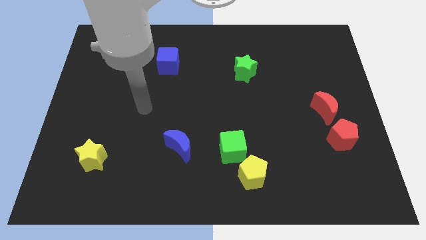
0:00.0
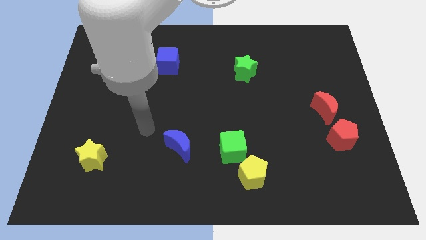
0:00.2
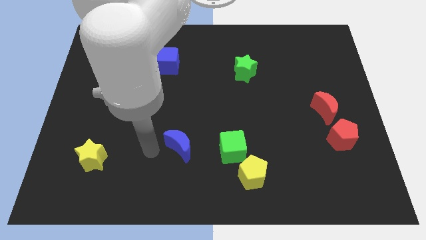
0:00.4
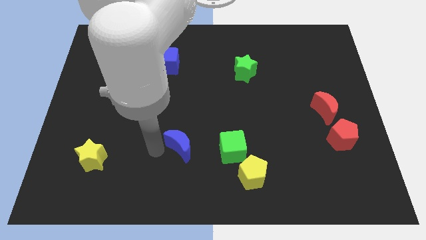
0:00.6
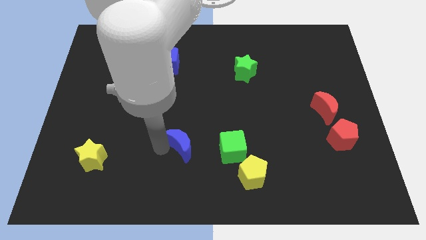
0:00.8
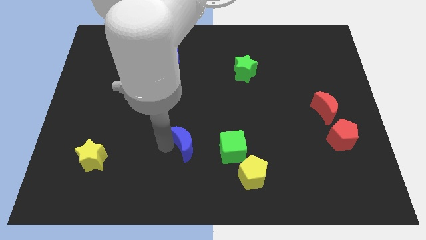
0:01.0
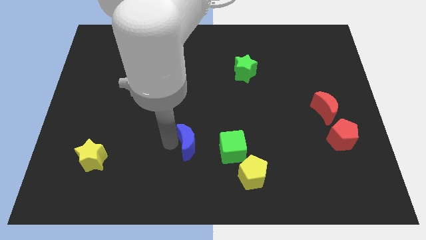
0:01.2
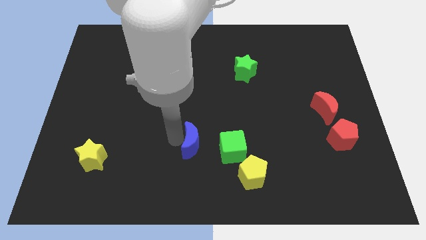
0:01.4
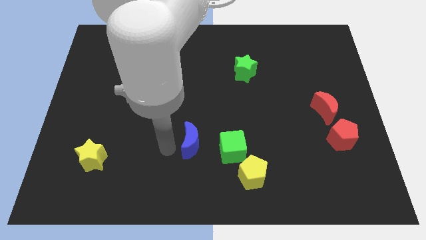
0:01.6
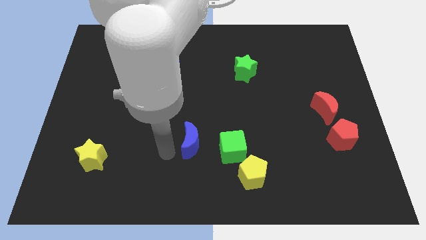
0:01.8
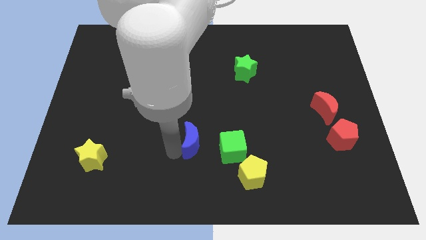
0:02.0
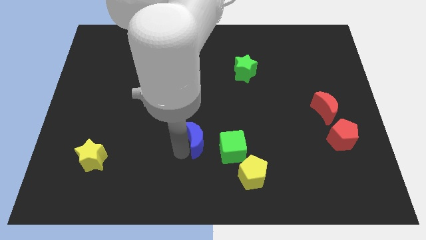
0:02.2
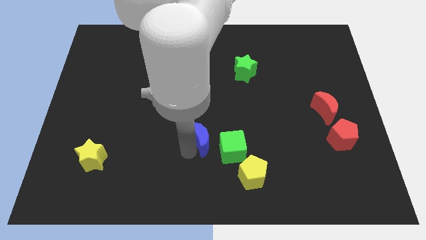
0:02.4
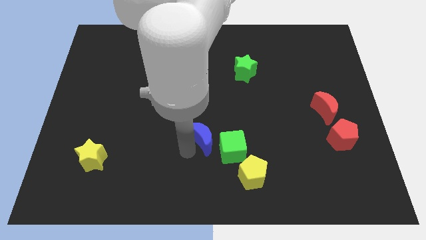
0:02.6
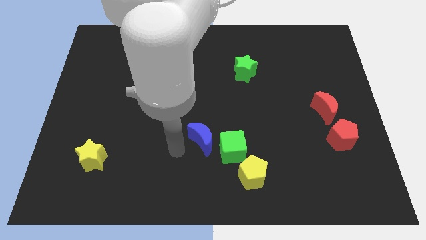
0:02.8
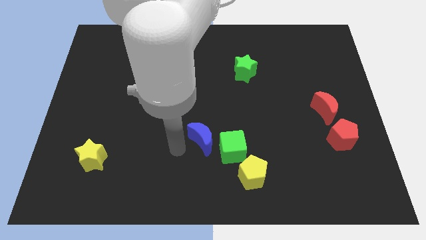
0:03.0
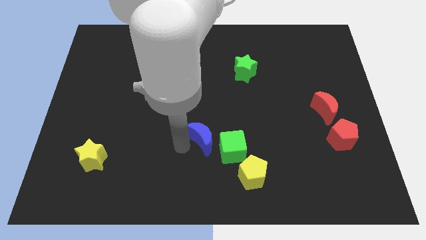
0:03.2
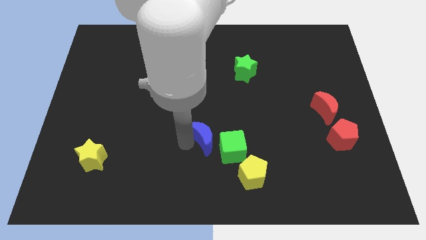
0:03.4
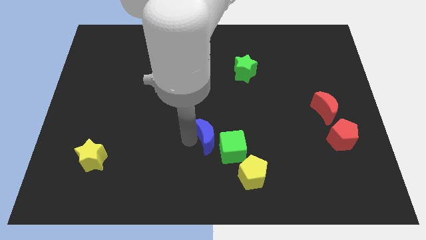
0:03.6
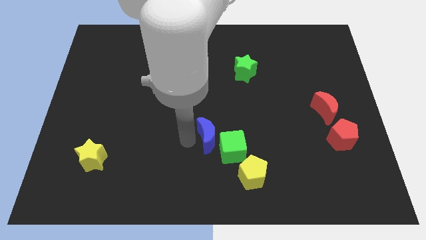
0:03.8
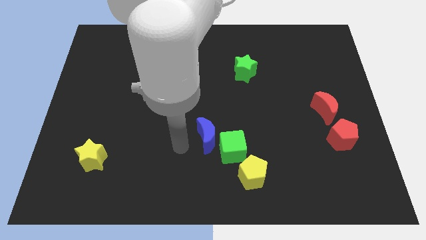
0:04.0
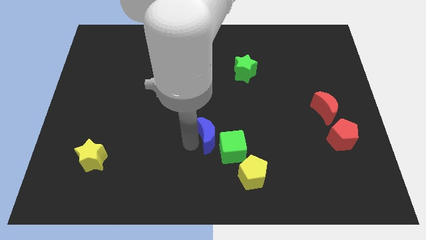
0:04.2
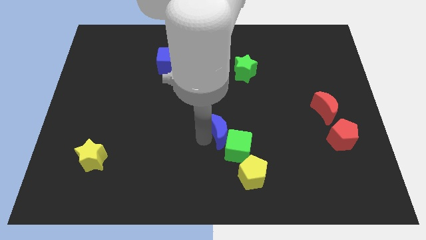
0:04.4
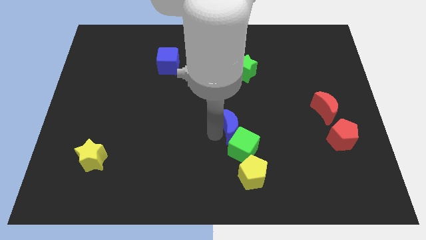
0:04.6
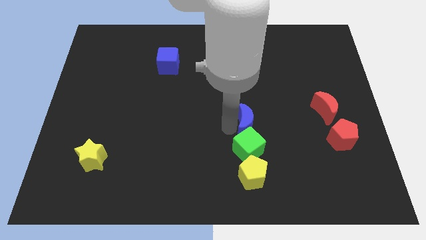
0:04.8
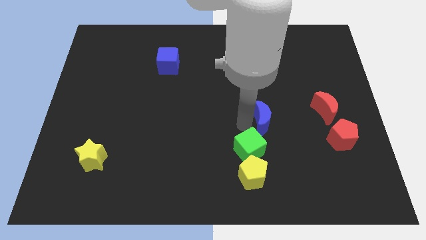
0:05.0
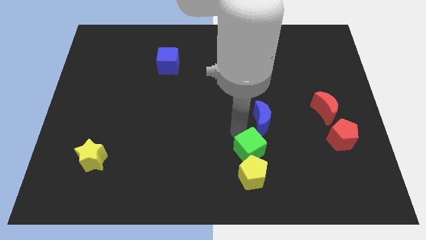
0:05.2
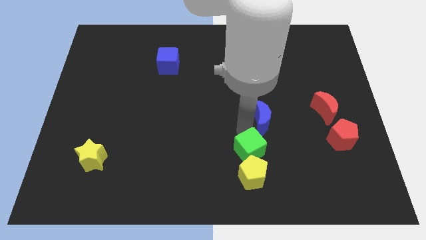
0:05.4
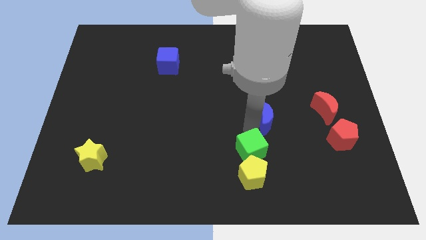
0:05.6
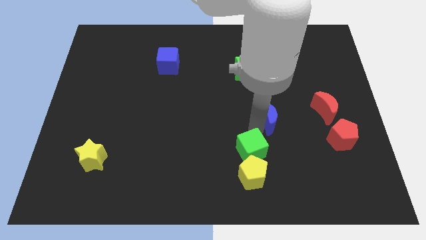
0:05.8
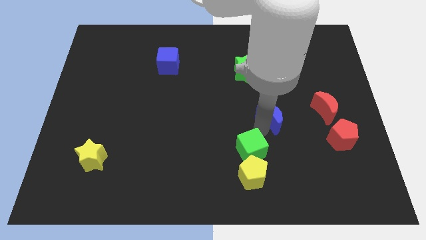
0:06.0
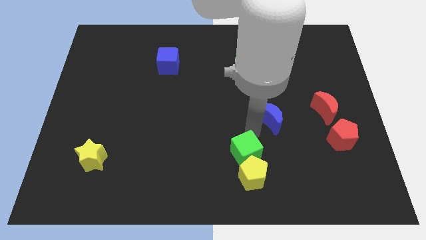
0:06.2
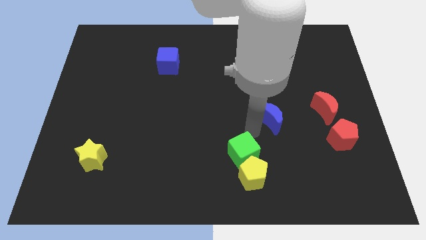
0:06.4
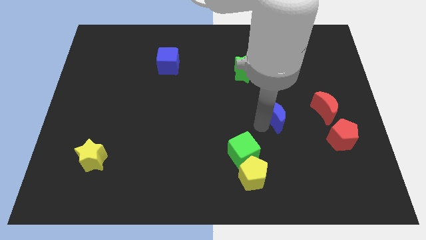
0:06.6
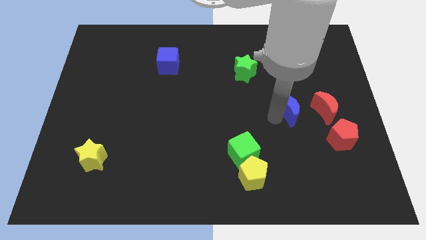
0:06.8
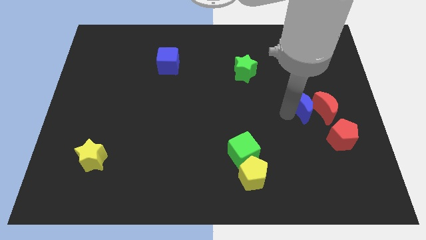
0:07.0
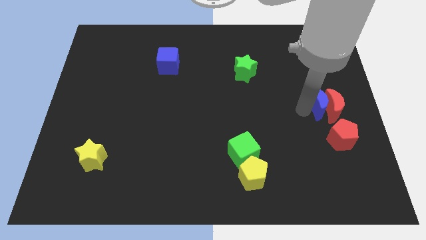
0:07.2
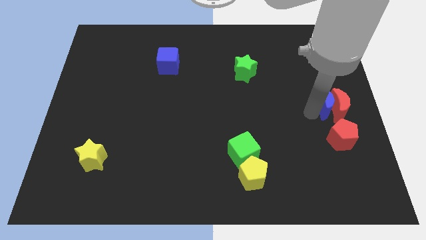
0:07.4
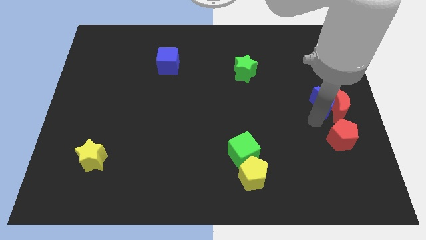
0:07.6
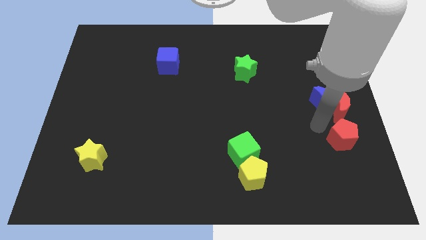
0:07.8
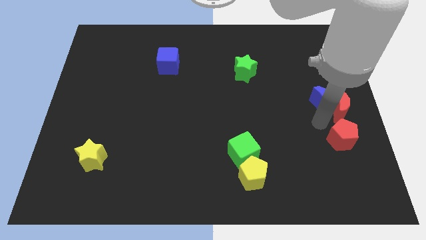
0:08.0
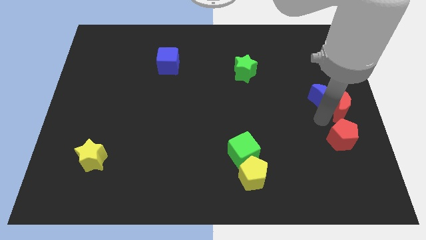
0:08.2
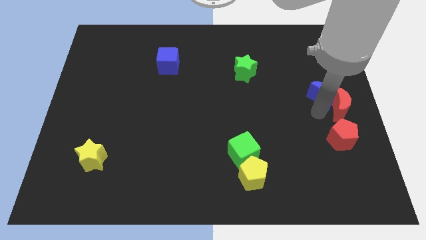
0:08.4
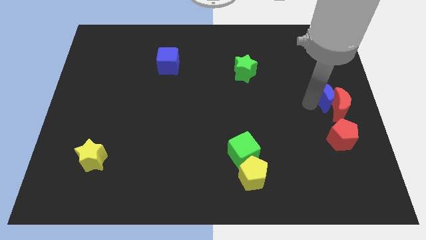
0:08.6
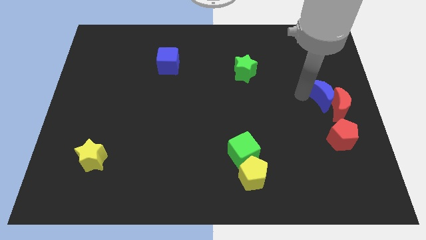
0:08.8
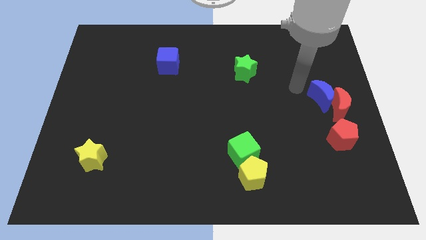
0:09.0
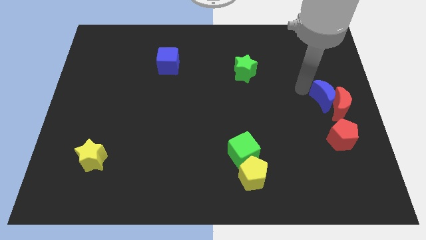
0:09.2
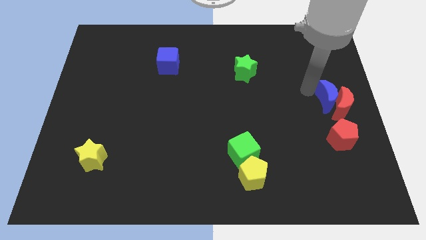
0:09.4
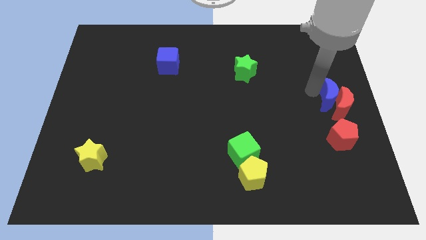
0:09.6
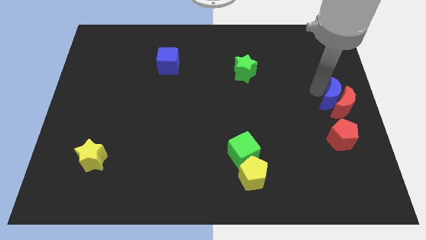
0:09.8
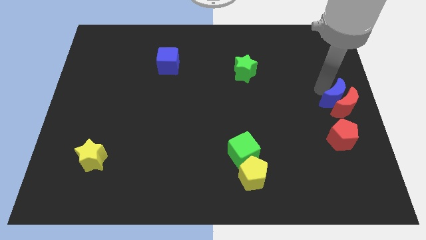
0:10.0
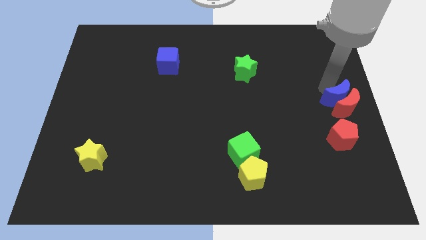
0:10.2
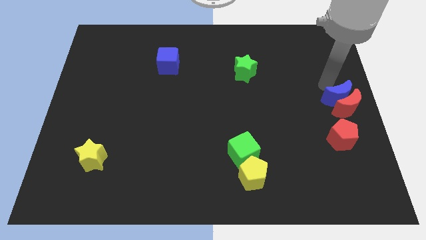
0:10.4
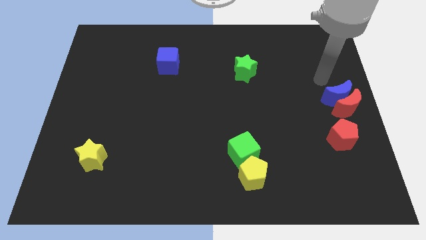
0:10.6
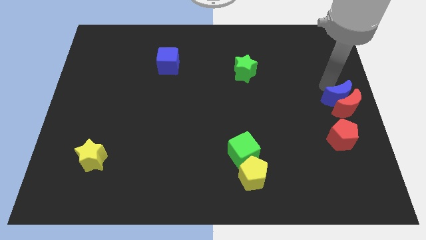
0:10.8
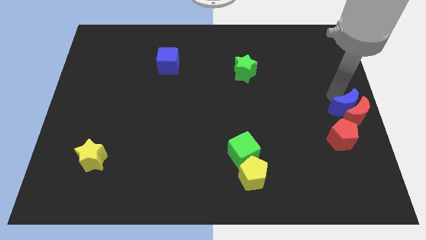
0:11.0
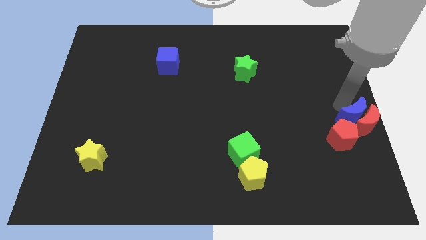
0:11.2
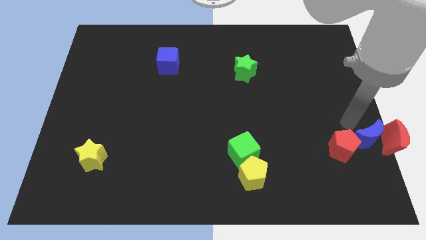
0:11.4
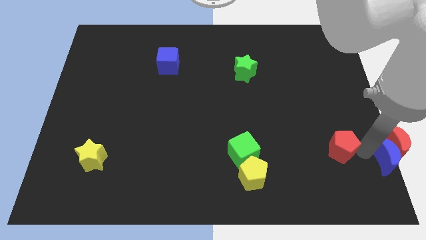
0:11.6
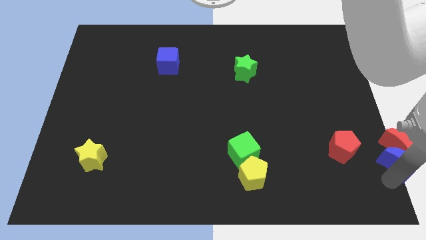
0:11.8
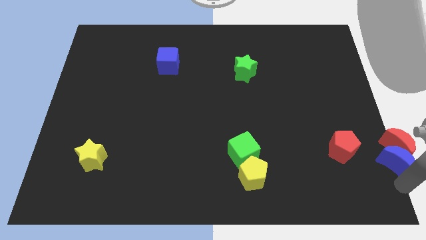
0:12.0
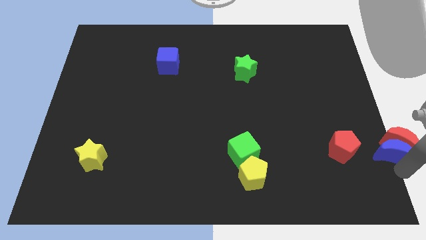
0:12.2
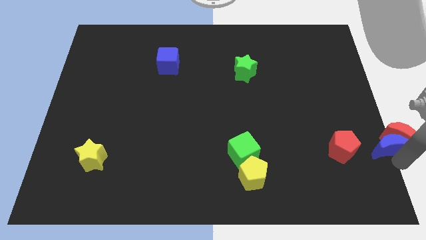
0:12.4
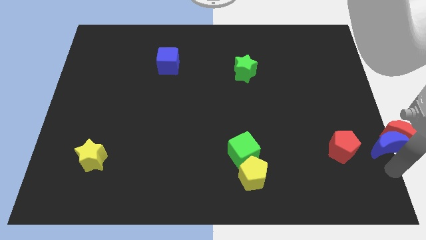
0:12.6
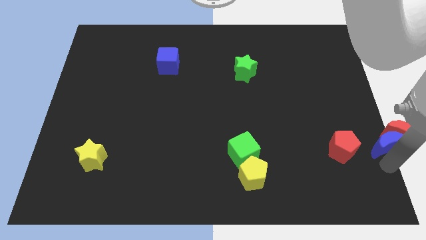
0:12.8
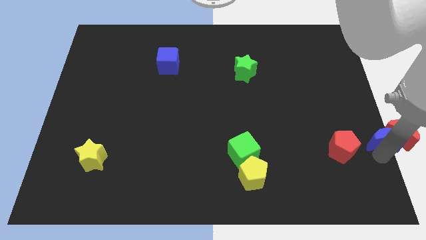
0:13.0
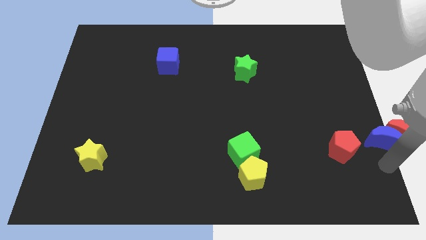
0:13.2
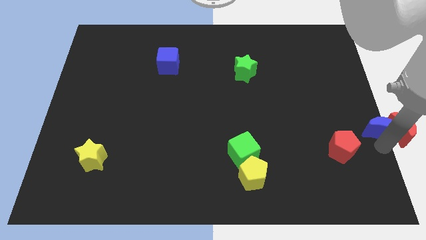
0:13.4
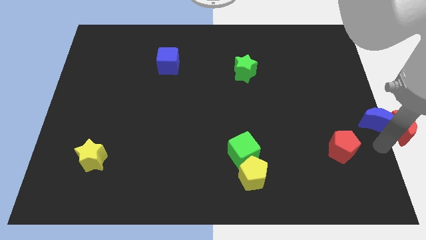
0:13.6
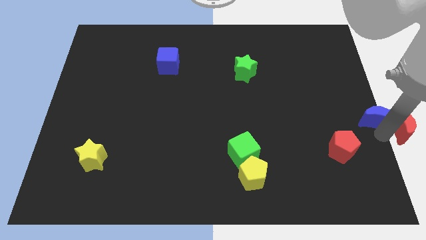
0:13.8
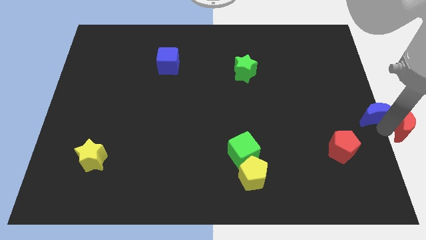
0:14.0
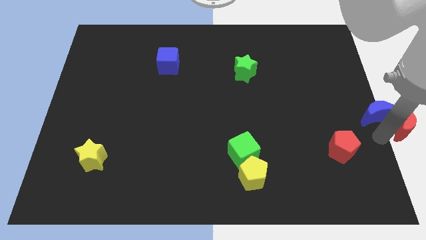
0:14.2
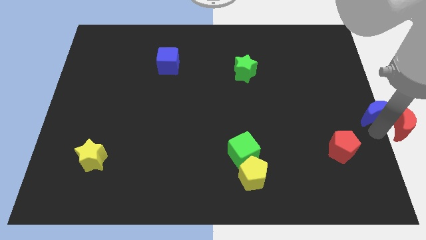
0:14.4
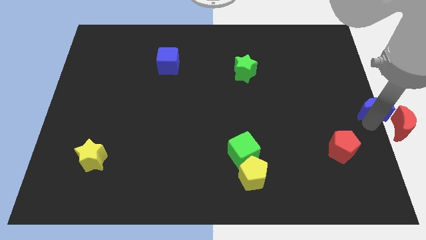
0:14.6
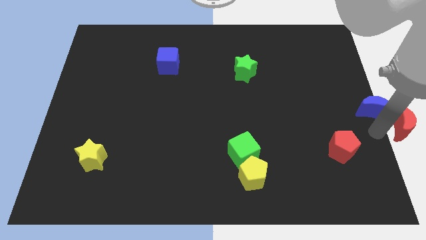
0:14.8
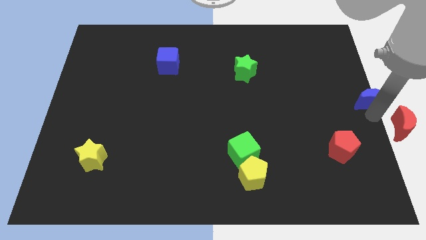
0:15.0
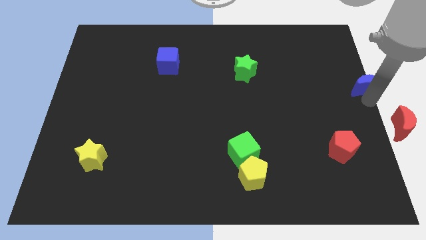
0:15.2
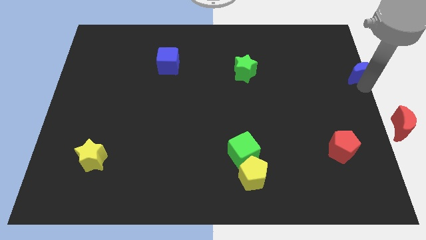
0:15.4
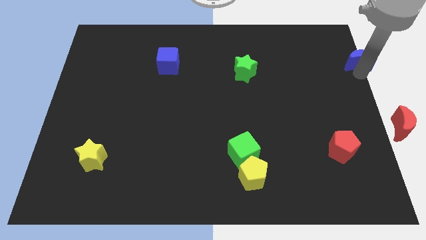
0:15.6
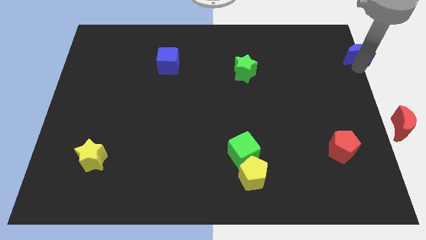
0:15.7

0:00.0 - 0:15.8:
slide the blue moon to the top right
